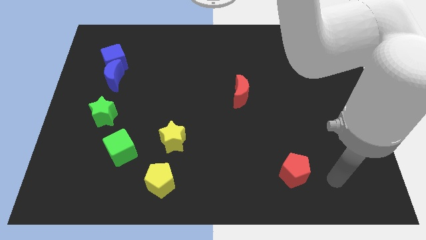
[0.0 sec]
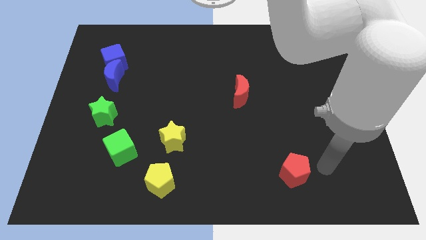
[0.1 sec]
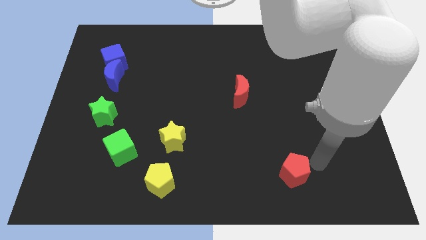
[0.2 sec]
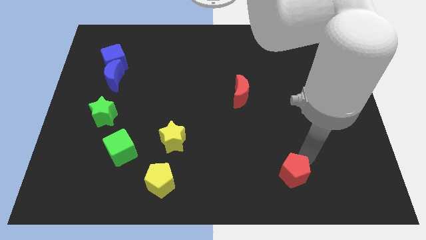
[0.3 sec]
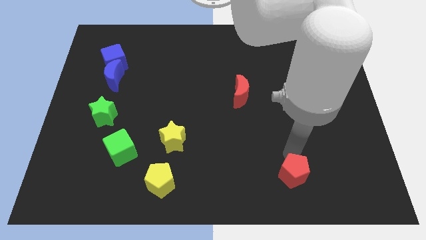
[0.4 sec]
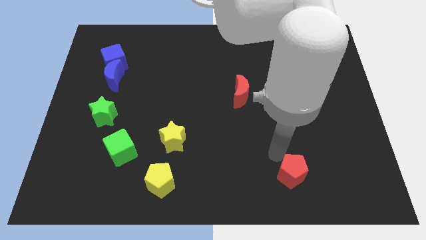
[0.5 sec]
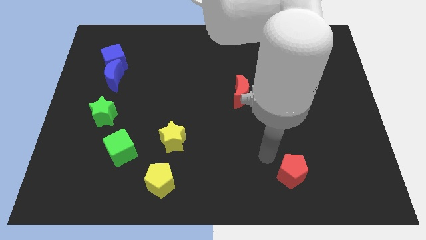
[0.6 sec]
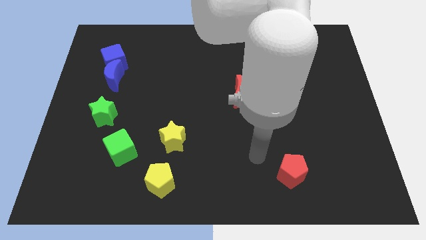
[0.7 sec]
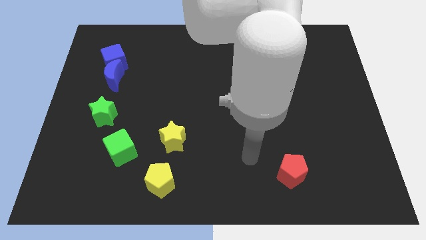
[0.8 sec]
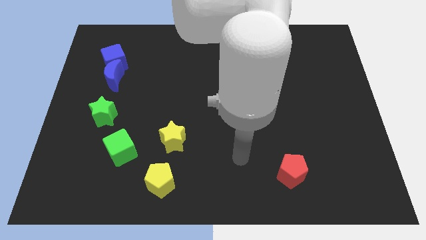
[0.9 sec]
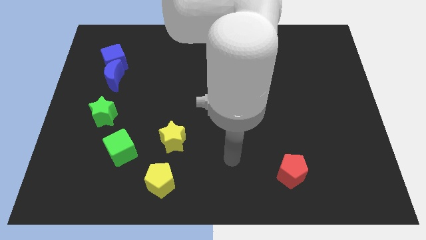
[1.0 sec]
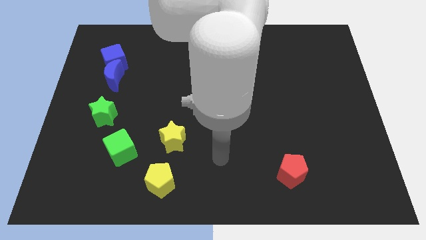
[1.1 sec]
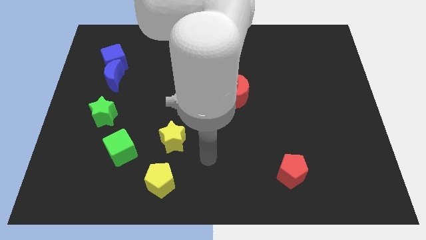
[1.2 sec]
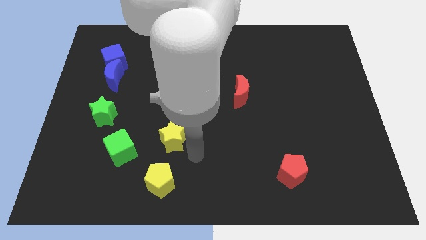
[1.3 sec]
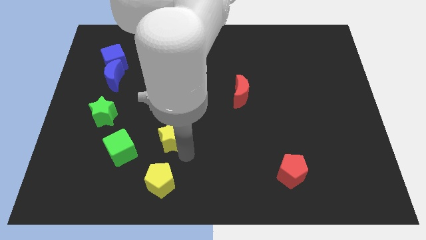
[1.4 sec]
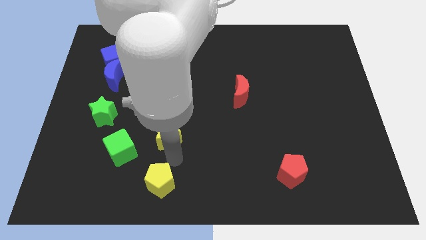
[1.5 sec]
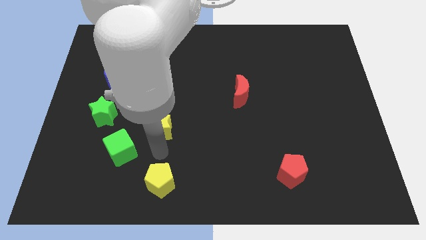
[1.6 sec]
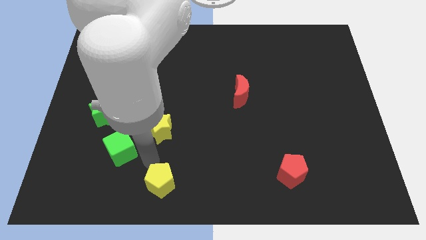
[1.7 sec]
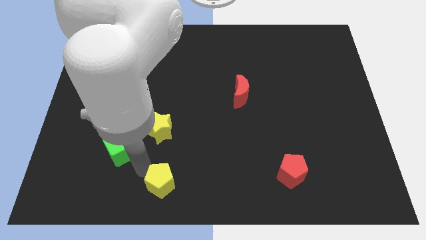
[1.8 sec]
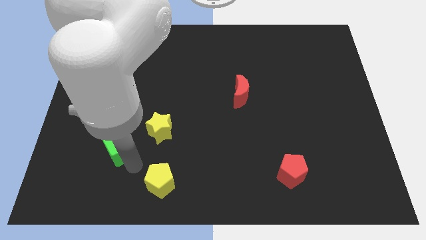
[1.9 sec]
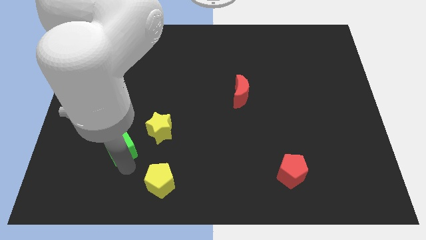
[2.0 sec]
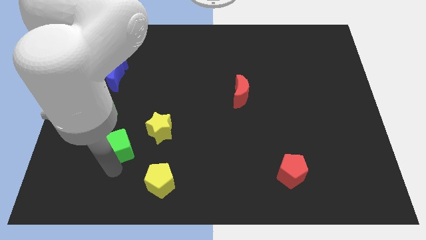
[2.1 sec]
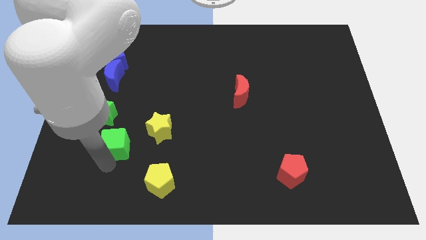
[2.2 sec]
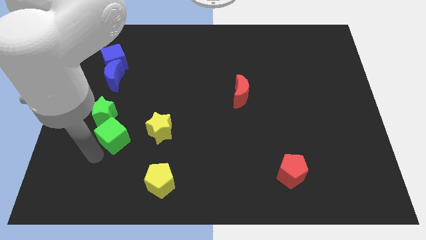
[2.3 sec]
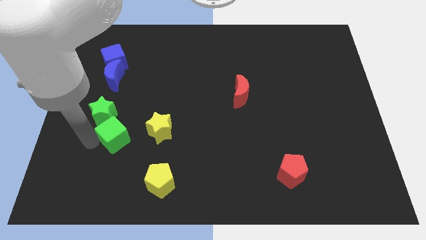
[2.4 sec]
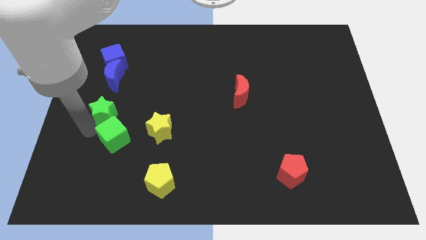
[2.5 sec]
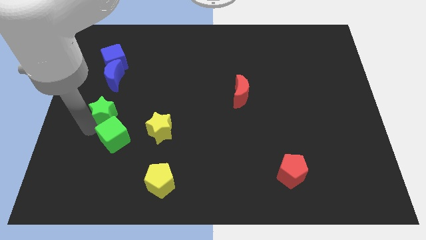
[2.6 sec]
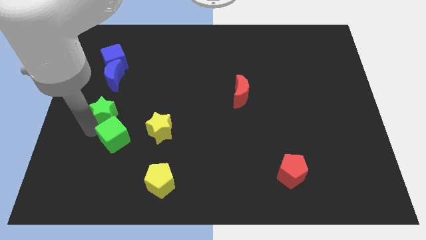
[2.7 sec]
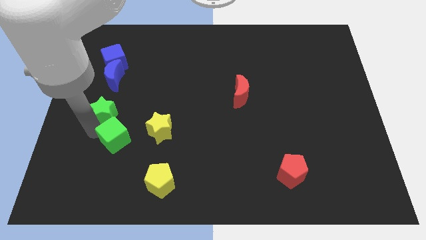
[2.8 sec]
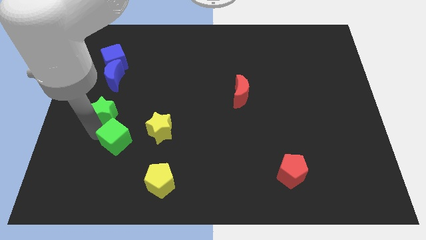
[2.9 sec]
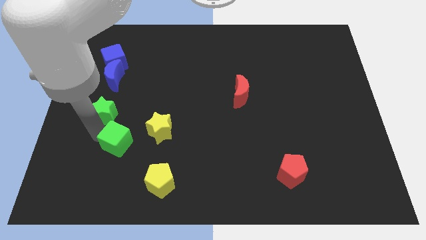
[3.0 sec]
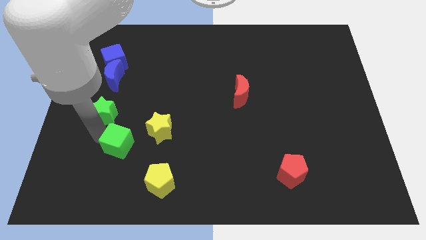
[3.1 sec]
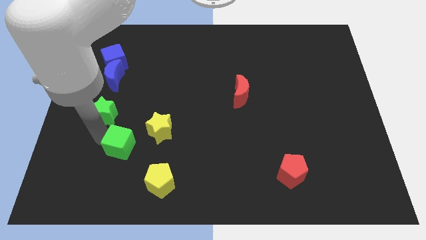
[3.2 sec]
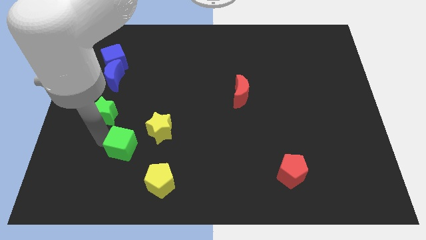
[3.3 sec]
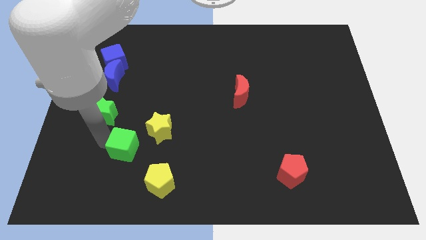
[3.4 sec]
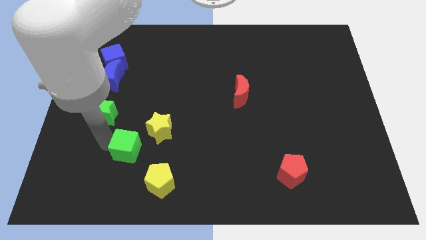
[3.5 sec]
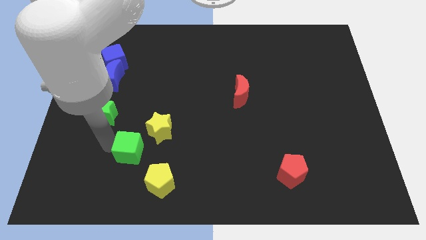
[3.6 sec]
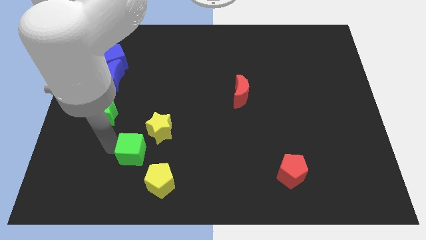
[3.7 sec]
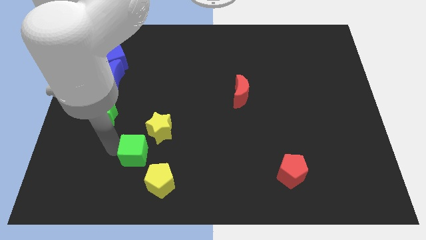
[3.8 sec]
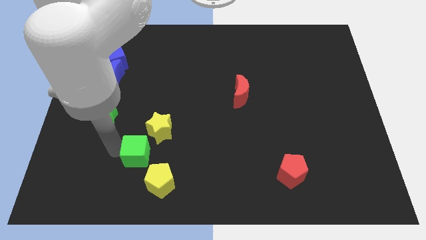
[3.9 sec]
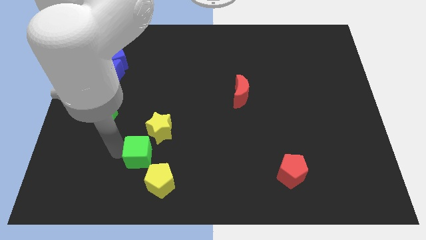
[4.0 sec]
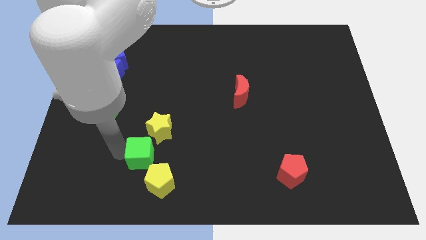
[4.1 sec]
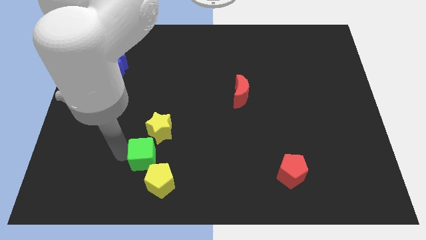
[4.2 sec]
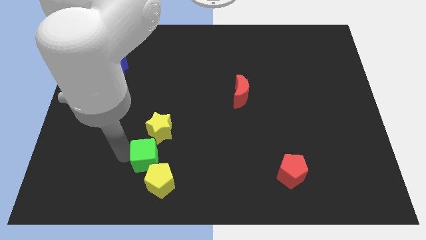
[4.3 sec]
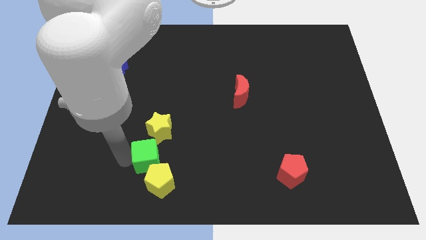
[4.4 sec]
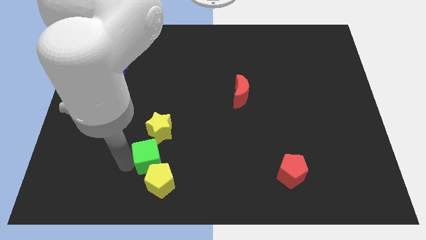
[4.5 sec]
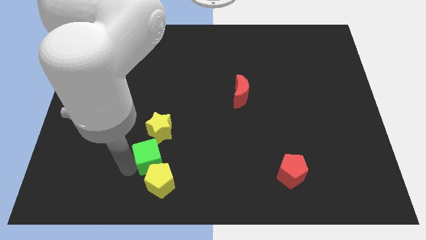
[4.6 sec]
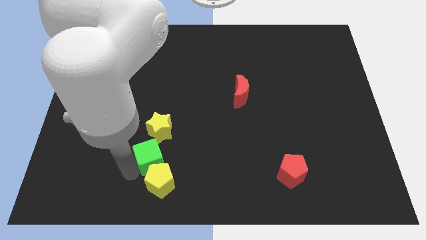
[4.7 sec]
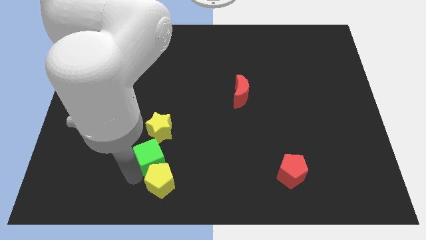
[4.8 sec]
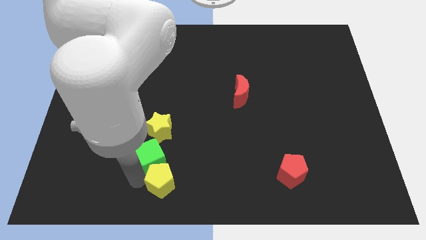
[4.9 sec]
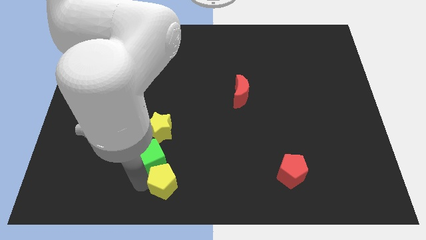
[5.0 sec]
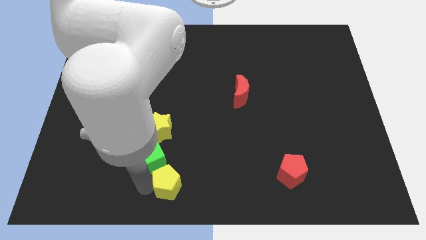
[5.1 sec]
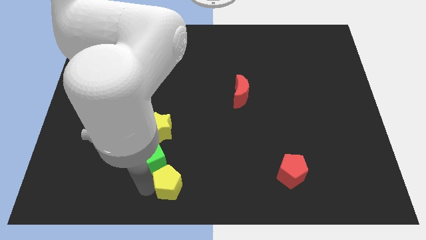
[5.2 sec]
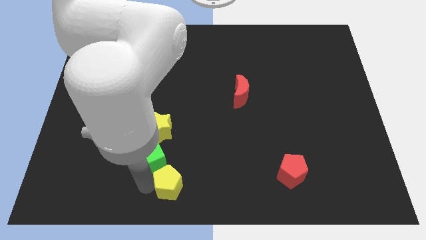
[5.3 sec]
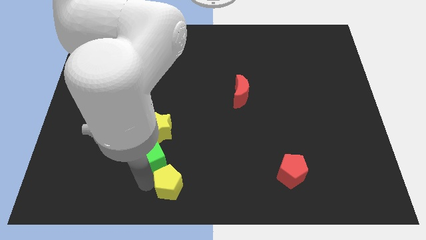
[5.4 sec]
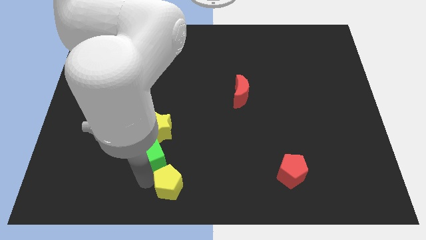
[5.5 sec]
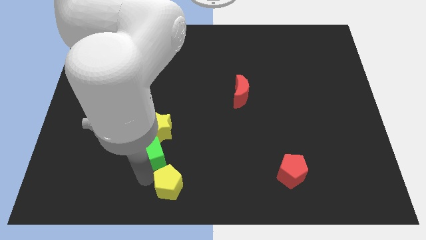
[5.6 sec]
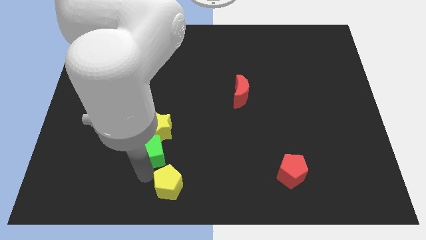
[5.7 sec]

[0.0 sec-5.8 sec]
move the green cube close to the yellow star

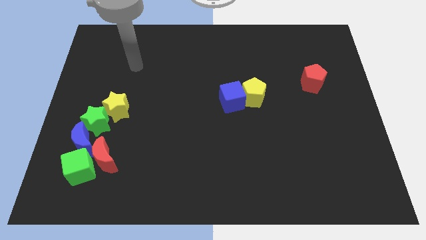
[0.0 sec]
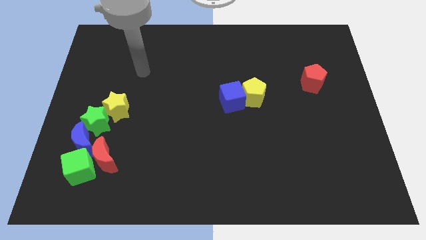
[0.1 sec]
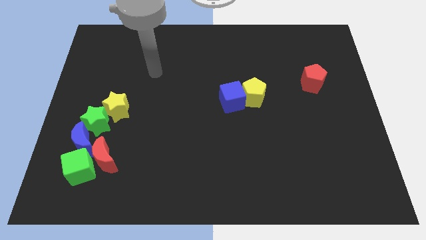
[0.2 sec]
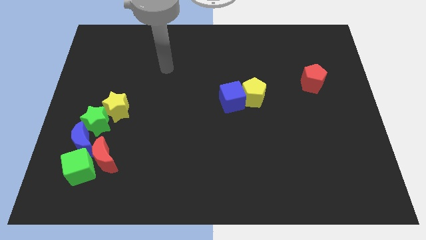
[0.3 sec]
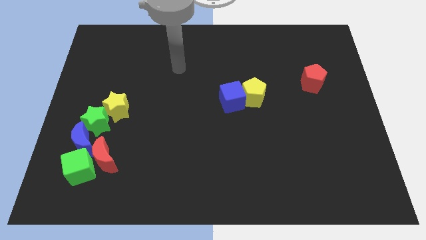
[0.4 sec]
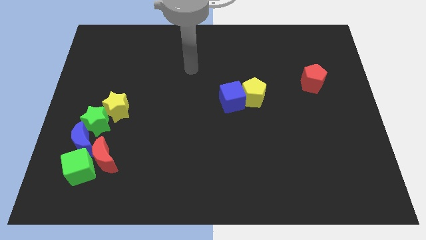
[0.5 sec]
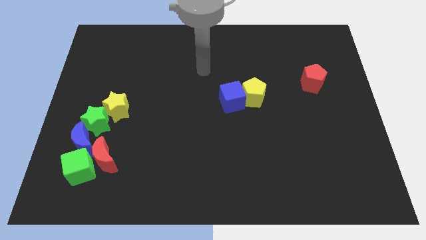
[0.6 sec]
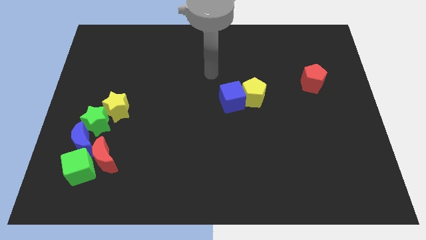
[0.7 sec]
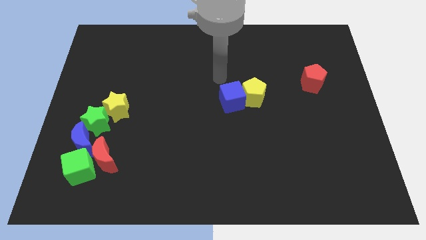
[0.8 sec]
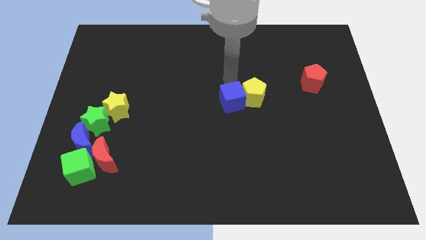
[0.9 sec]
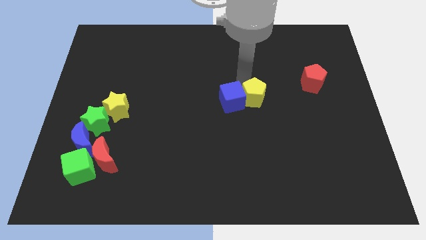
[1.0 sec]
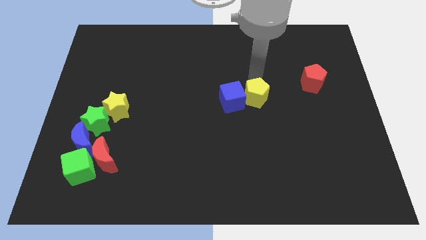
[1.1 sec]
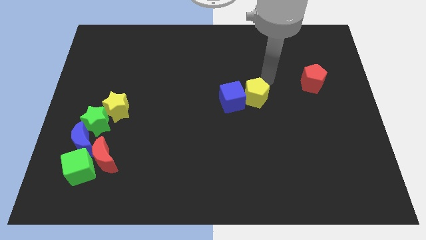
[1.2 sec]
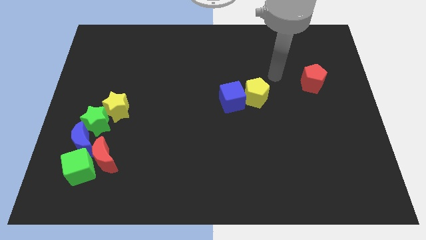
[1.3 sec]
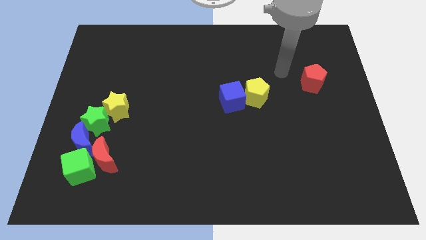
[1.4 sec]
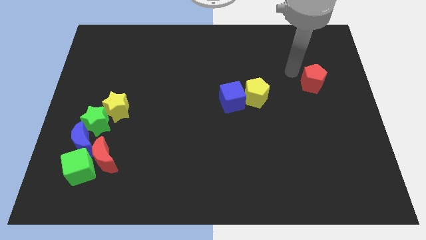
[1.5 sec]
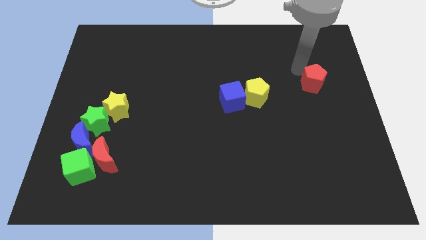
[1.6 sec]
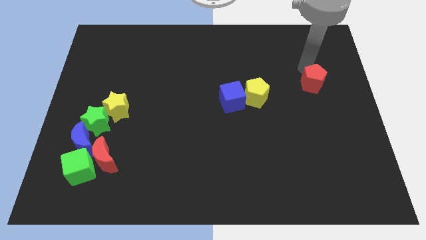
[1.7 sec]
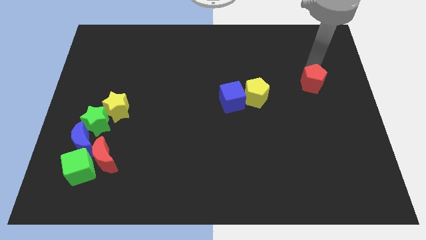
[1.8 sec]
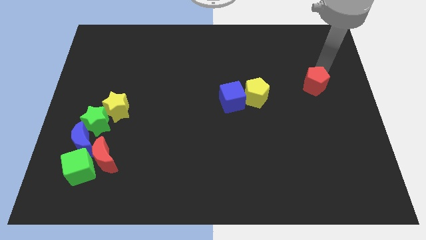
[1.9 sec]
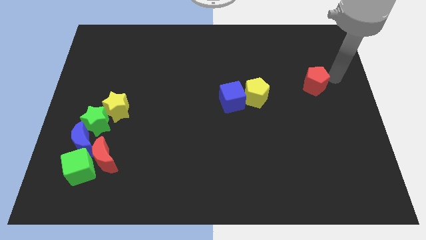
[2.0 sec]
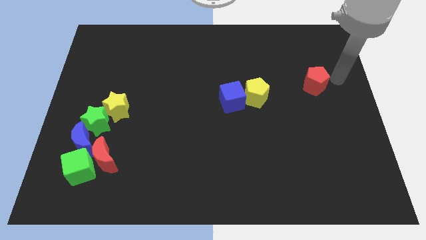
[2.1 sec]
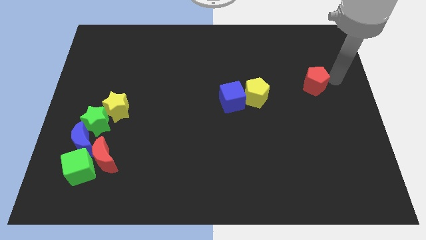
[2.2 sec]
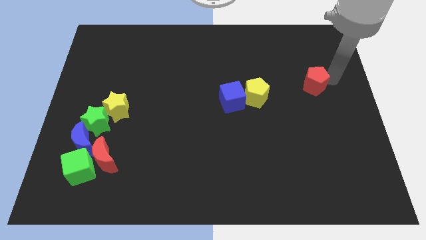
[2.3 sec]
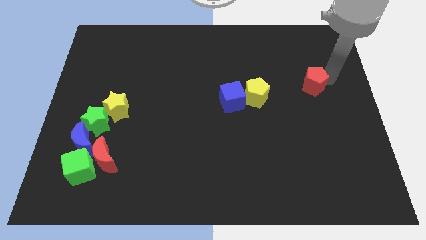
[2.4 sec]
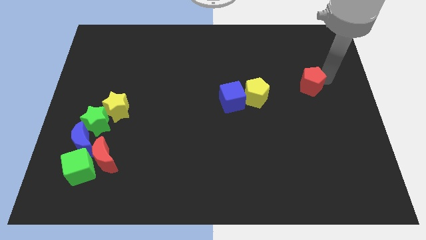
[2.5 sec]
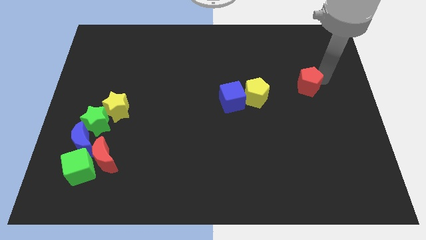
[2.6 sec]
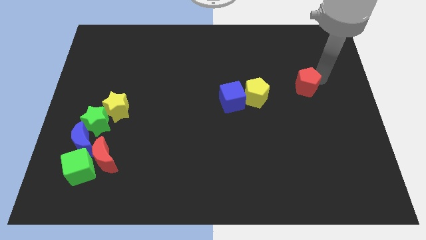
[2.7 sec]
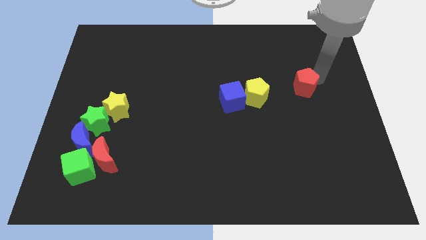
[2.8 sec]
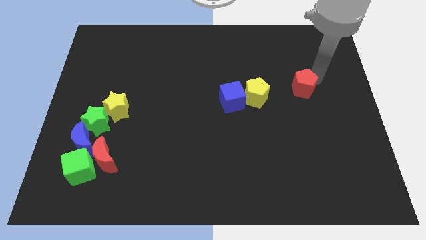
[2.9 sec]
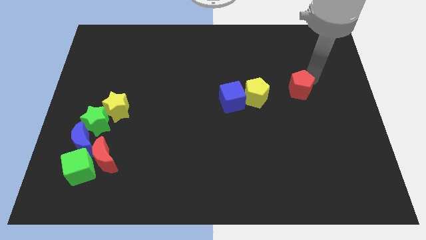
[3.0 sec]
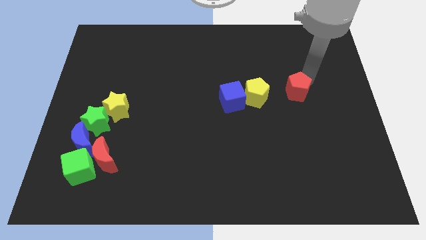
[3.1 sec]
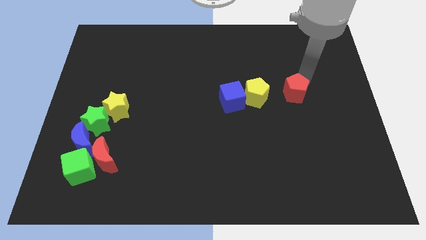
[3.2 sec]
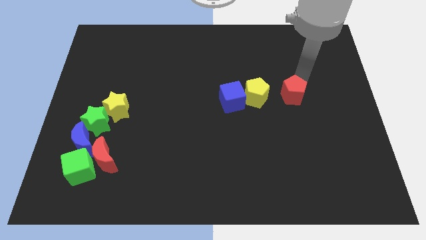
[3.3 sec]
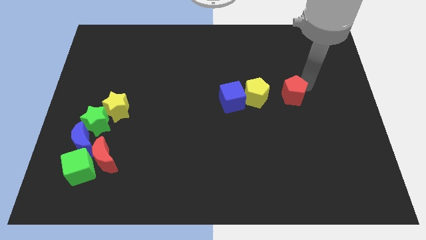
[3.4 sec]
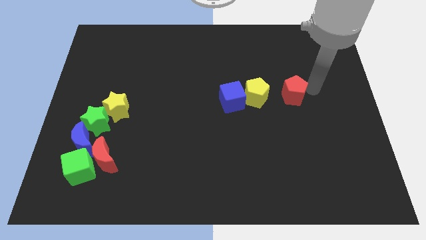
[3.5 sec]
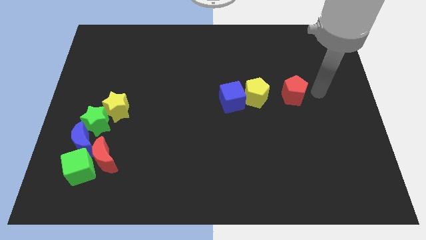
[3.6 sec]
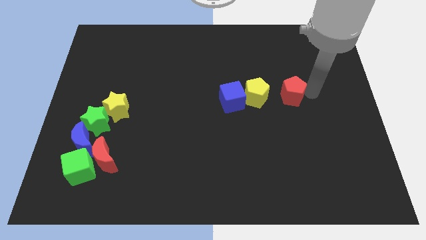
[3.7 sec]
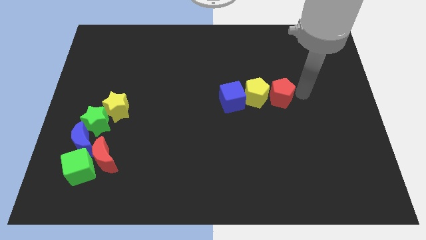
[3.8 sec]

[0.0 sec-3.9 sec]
move the red pentagon to the yellow pentagon
